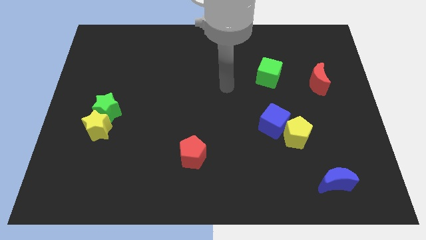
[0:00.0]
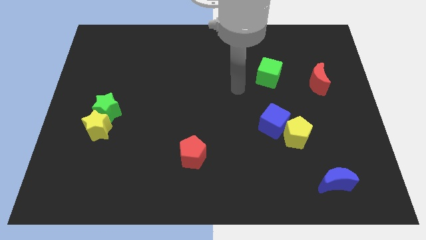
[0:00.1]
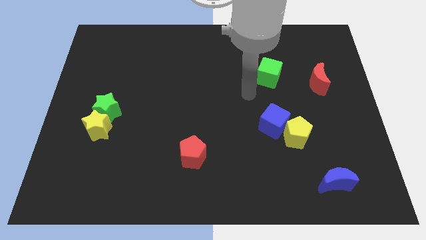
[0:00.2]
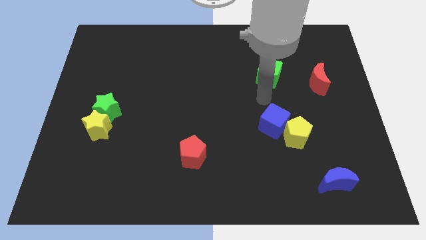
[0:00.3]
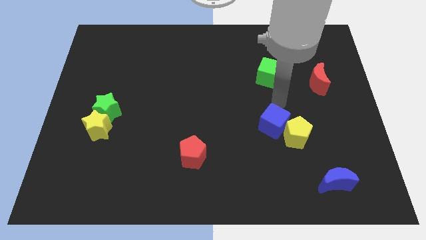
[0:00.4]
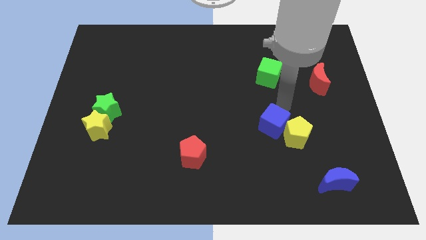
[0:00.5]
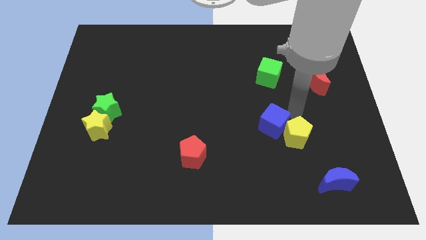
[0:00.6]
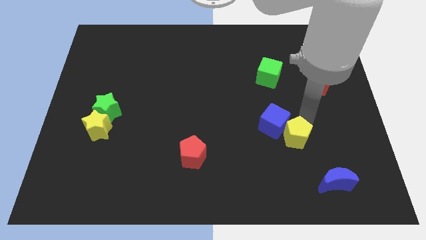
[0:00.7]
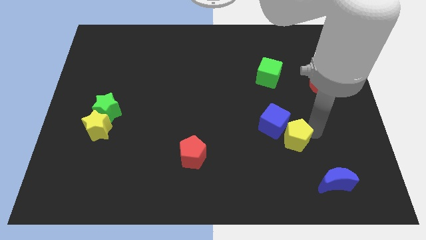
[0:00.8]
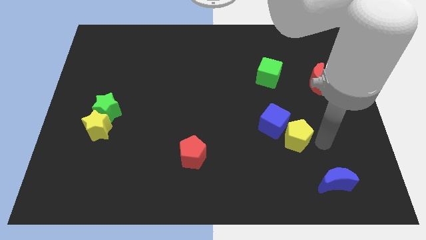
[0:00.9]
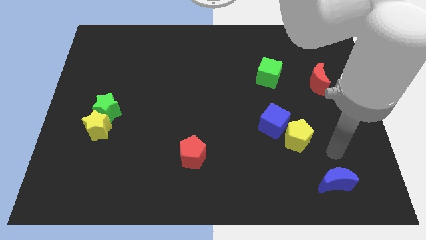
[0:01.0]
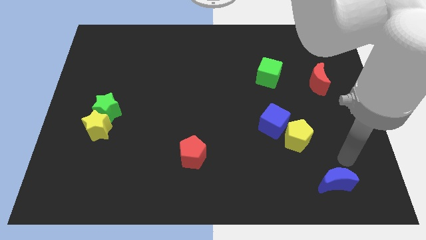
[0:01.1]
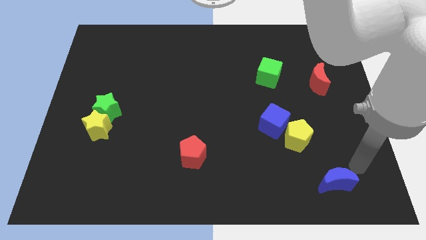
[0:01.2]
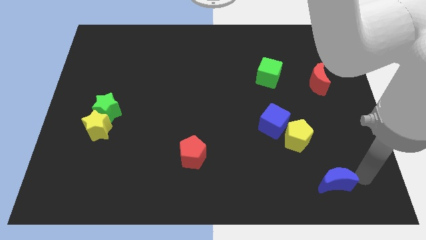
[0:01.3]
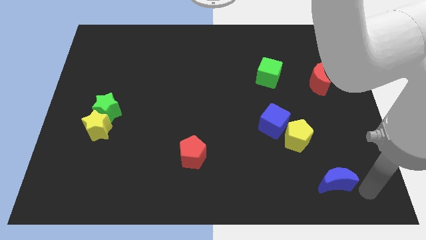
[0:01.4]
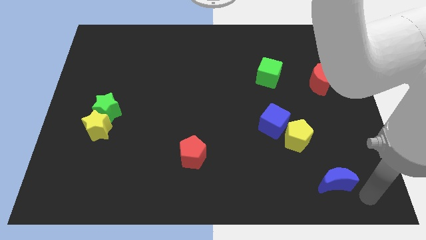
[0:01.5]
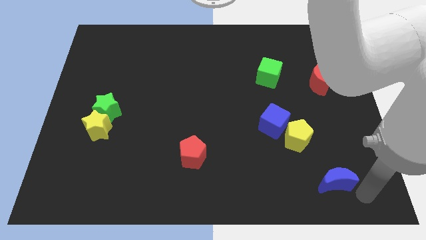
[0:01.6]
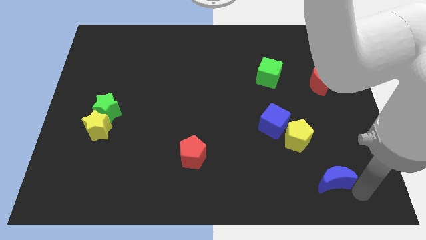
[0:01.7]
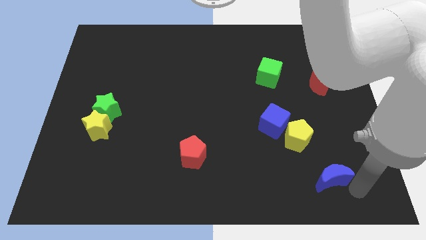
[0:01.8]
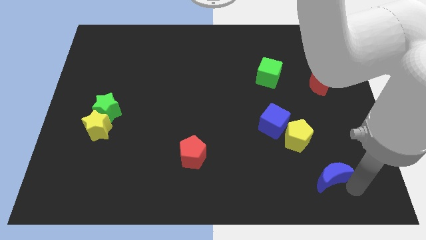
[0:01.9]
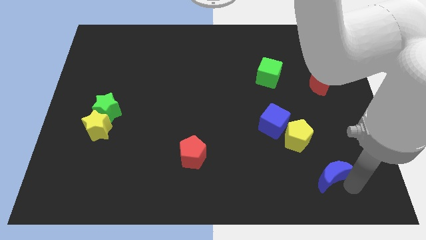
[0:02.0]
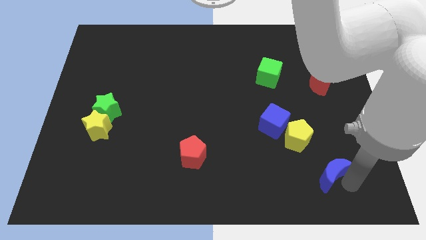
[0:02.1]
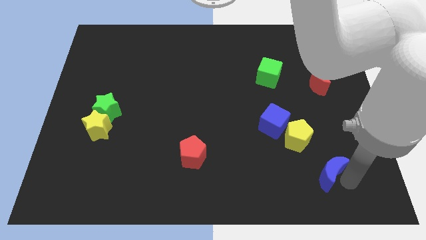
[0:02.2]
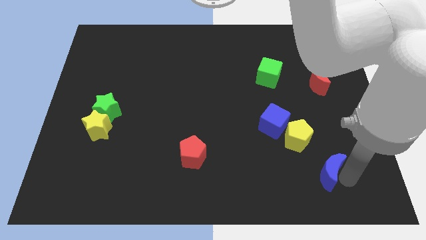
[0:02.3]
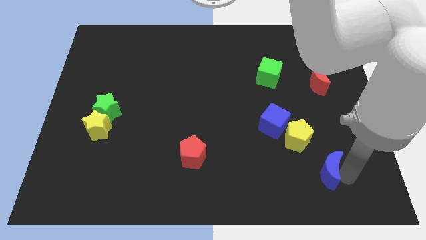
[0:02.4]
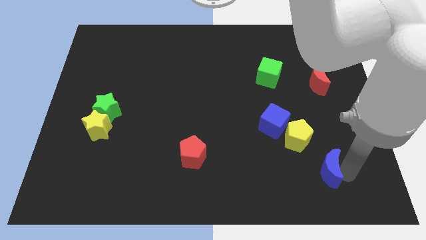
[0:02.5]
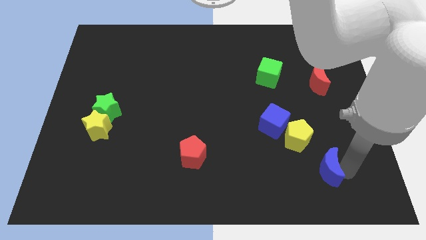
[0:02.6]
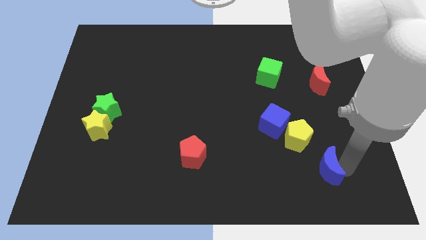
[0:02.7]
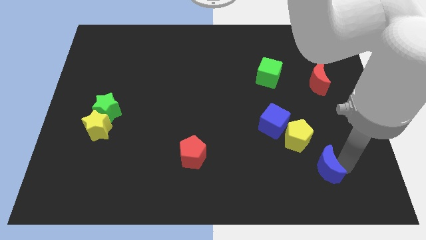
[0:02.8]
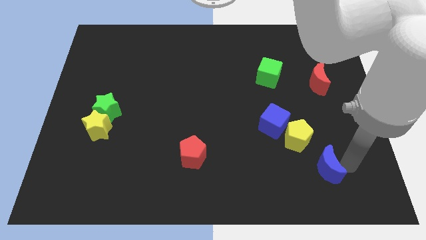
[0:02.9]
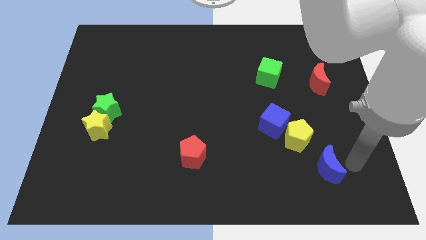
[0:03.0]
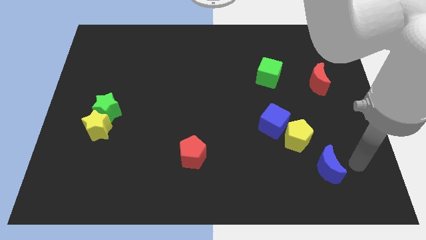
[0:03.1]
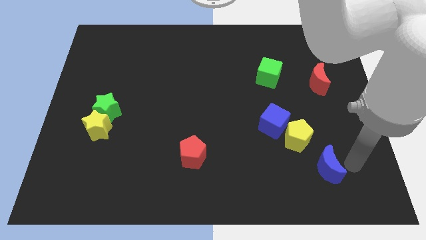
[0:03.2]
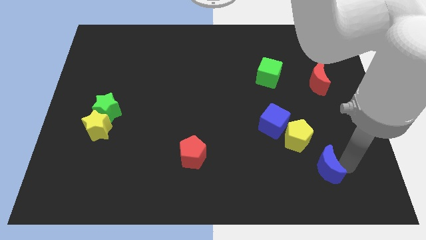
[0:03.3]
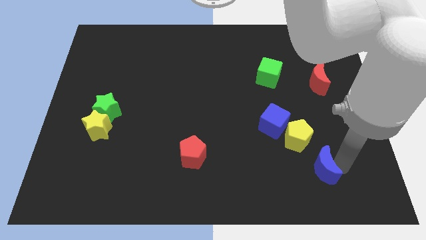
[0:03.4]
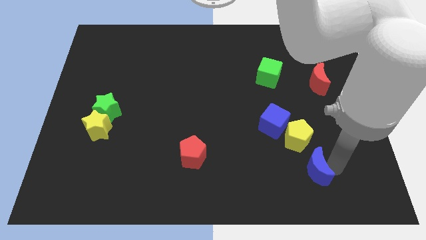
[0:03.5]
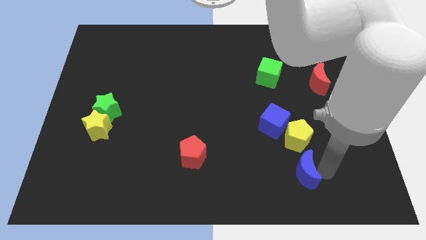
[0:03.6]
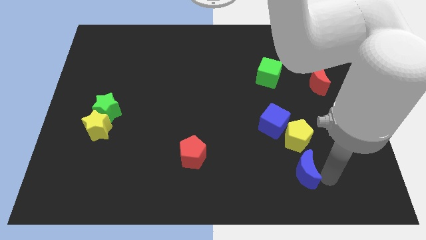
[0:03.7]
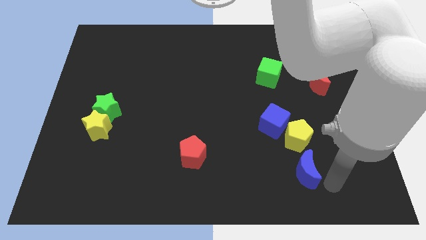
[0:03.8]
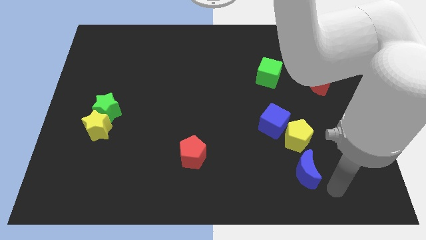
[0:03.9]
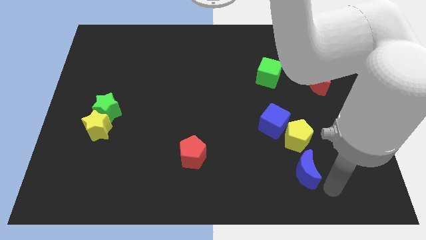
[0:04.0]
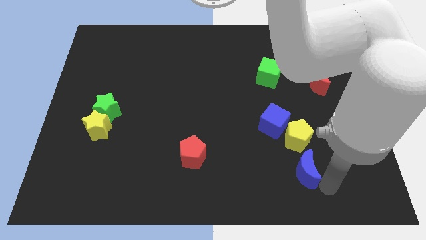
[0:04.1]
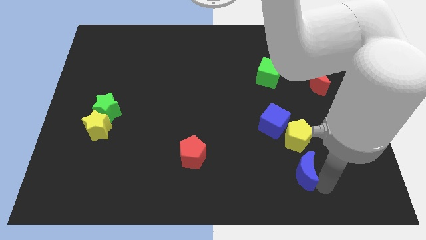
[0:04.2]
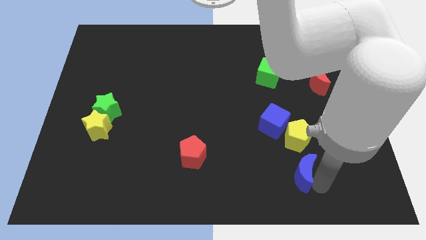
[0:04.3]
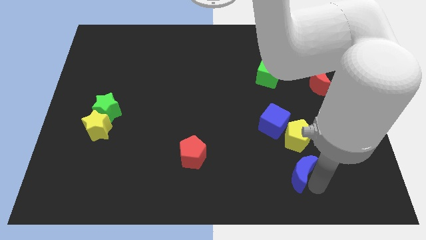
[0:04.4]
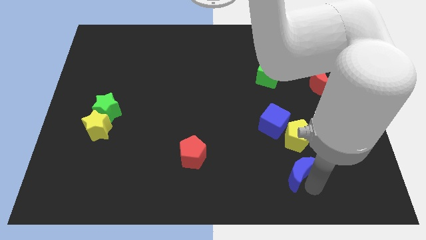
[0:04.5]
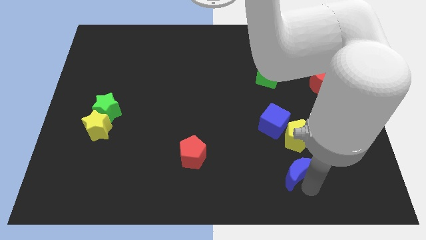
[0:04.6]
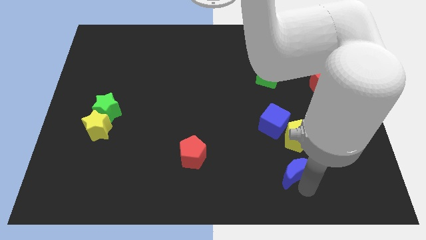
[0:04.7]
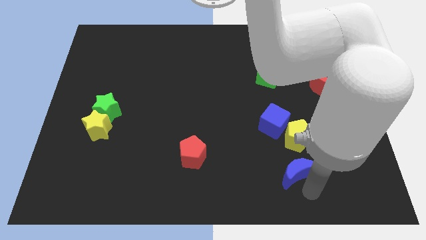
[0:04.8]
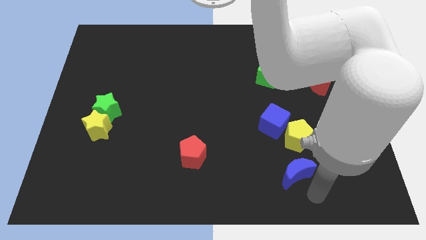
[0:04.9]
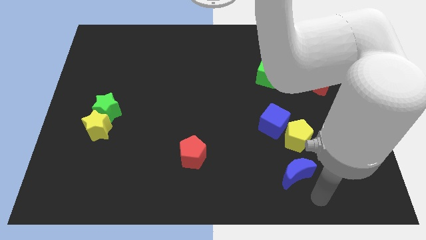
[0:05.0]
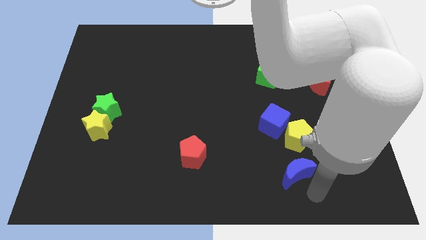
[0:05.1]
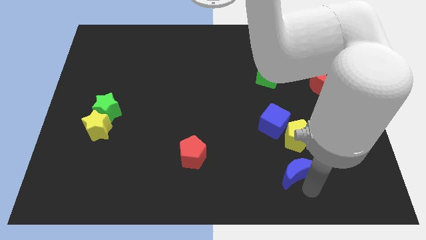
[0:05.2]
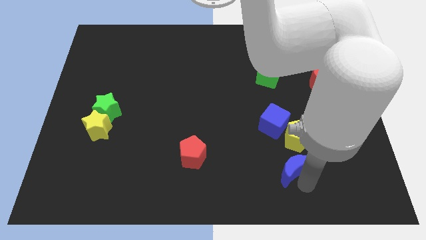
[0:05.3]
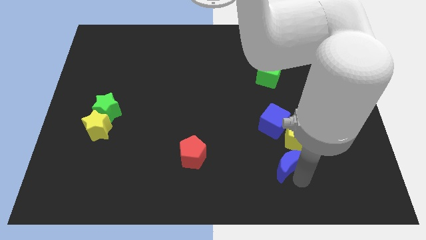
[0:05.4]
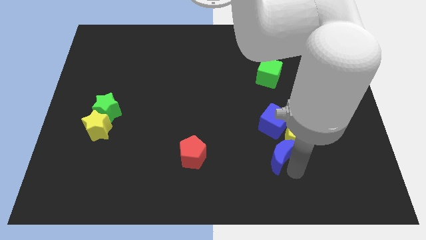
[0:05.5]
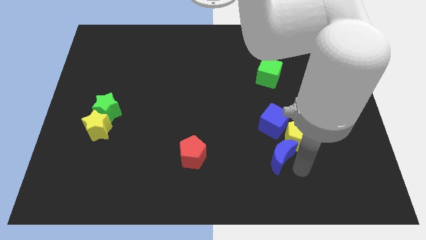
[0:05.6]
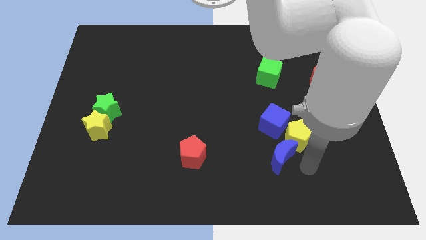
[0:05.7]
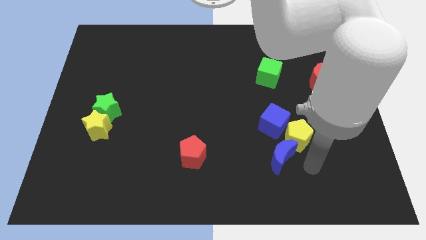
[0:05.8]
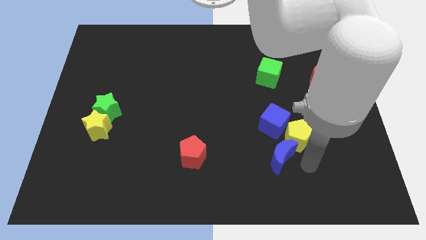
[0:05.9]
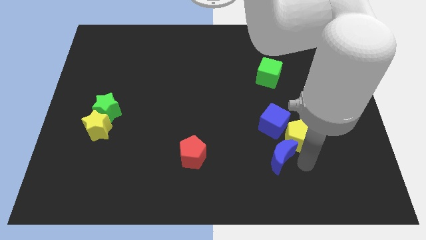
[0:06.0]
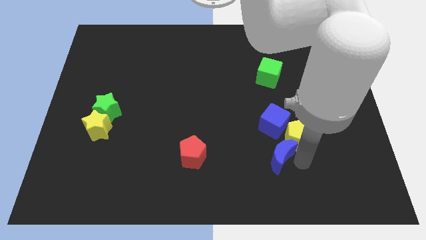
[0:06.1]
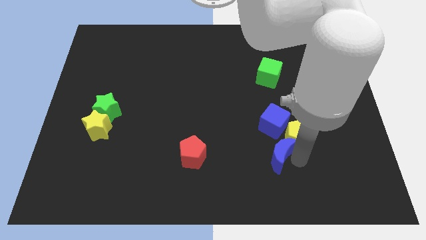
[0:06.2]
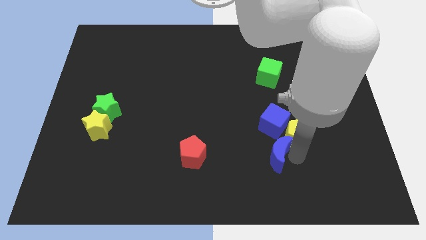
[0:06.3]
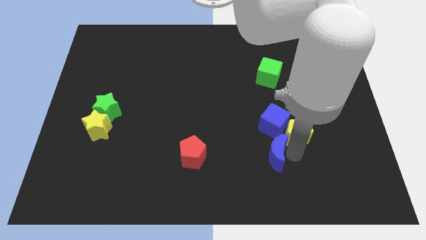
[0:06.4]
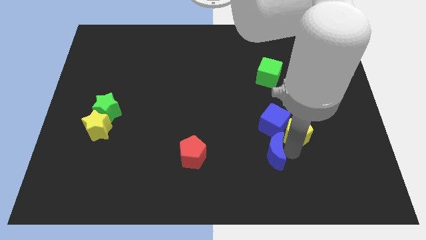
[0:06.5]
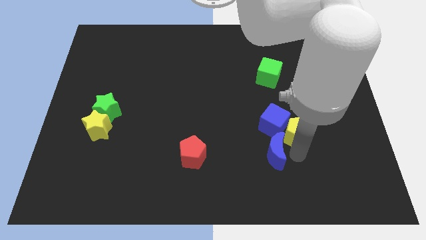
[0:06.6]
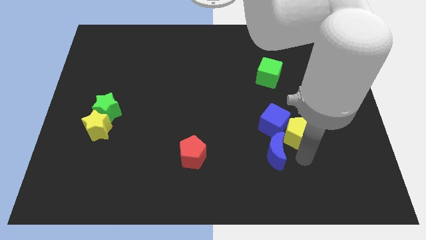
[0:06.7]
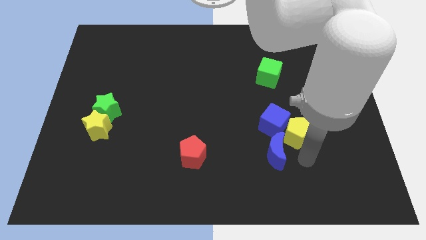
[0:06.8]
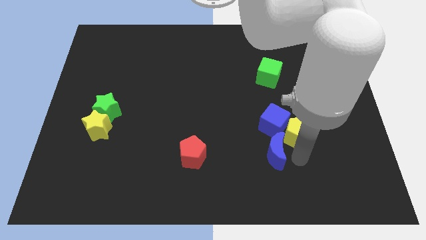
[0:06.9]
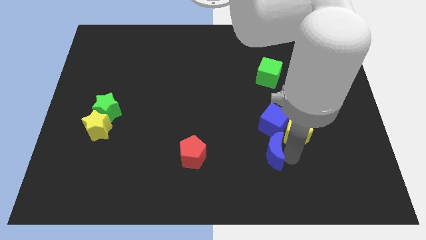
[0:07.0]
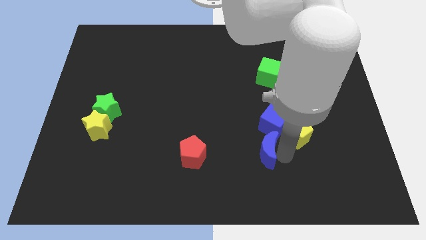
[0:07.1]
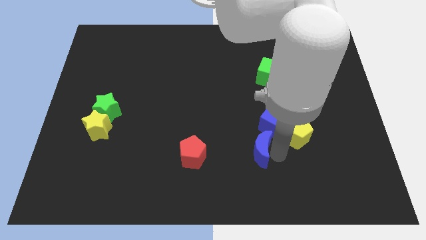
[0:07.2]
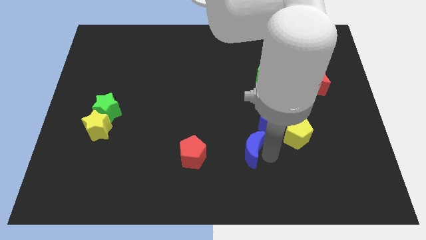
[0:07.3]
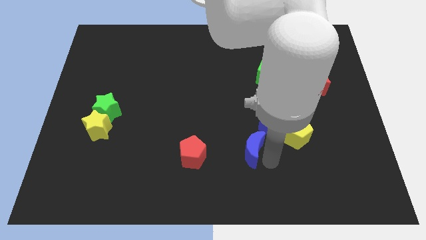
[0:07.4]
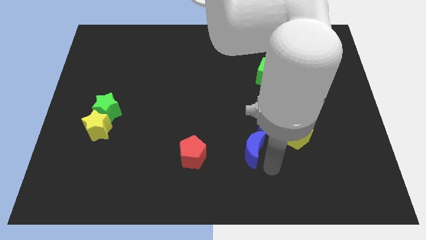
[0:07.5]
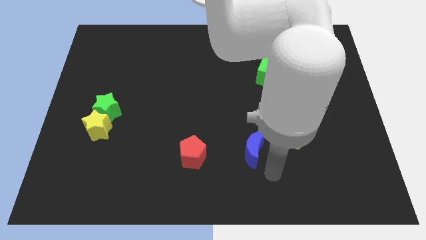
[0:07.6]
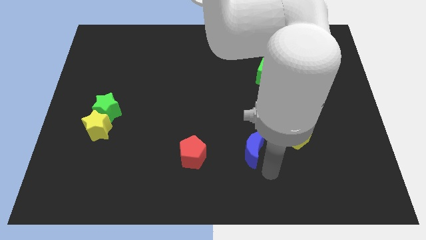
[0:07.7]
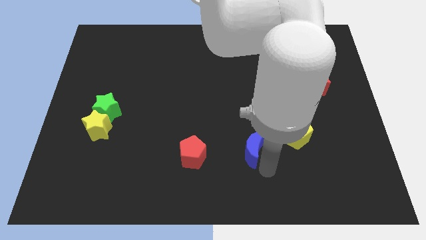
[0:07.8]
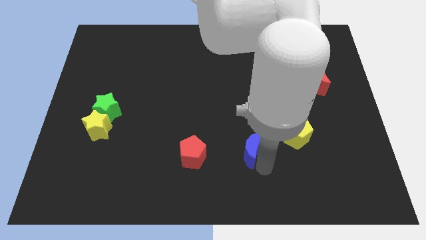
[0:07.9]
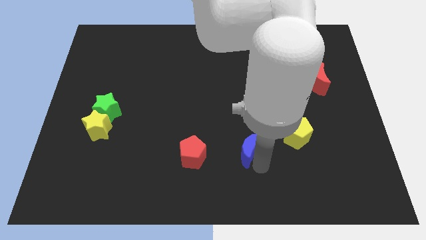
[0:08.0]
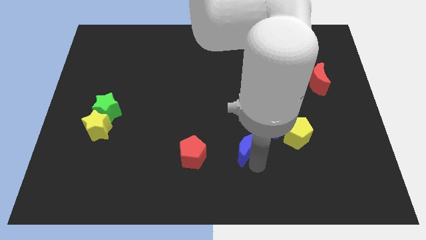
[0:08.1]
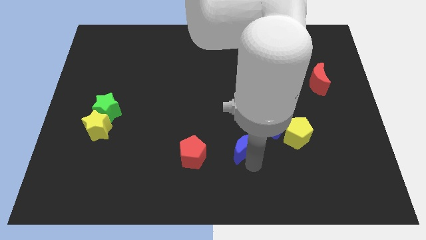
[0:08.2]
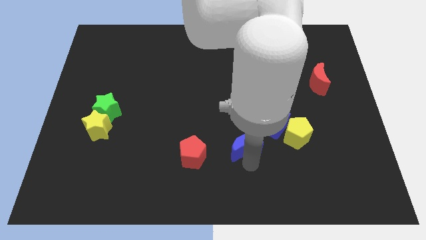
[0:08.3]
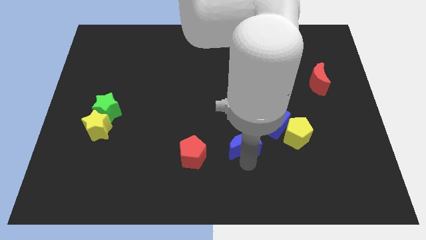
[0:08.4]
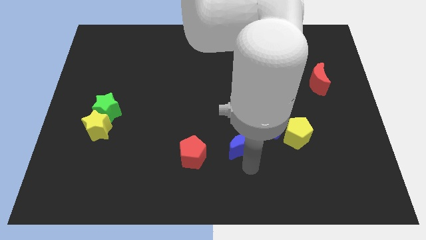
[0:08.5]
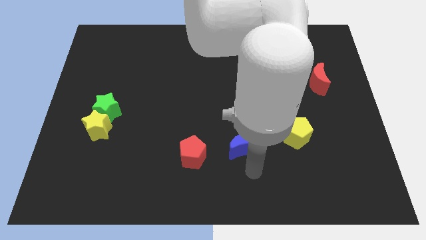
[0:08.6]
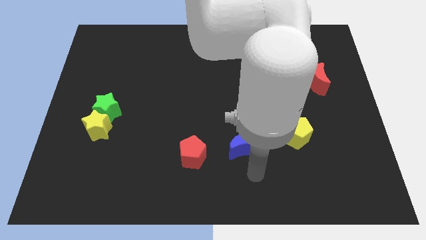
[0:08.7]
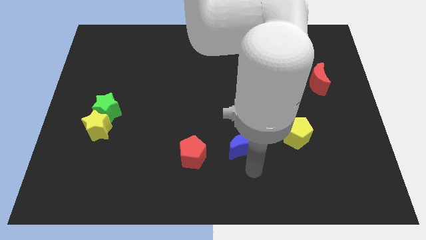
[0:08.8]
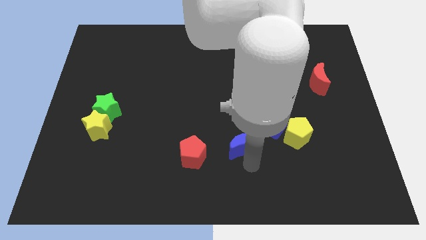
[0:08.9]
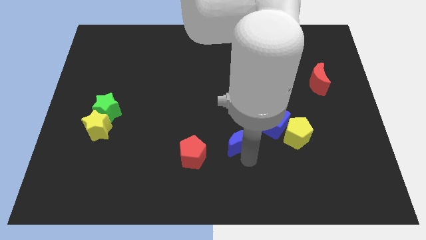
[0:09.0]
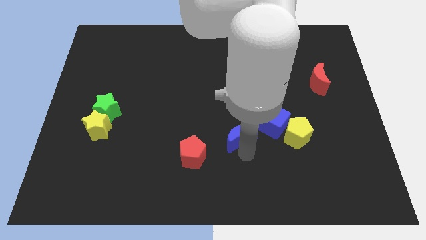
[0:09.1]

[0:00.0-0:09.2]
push the blue moon to the middle
